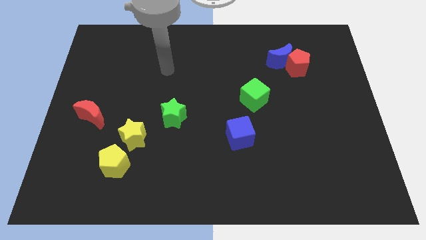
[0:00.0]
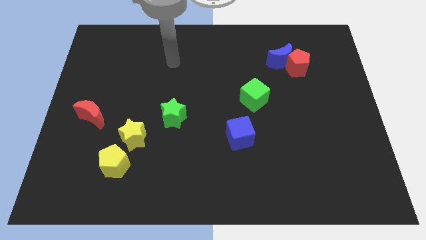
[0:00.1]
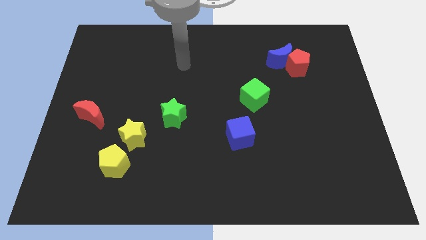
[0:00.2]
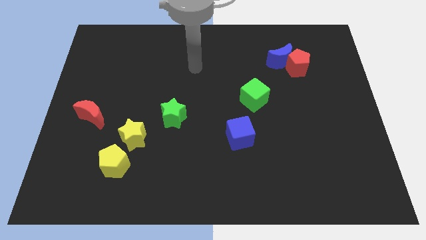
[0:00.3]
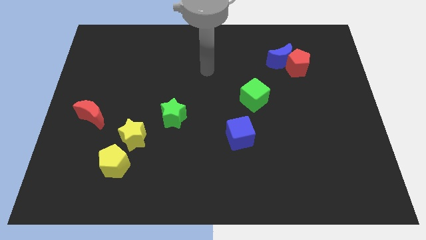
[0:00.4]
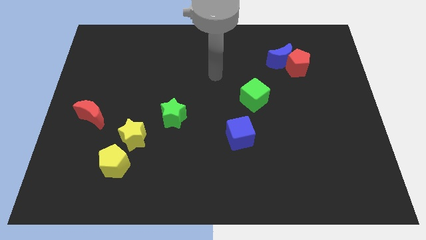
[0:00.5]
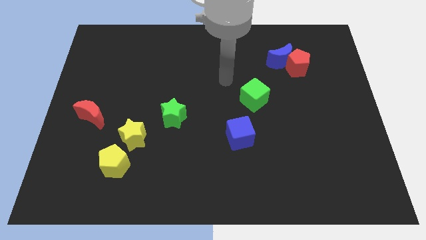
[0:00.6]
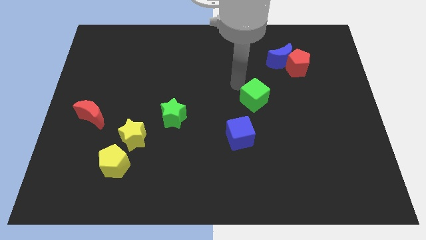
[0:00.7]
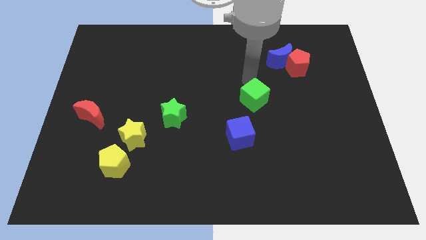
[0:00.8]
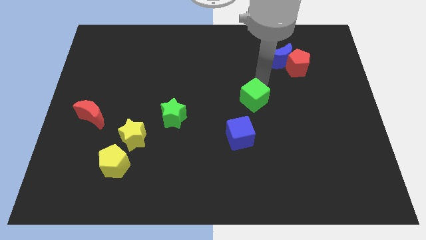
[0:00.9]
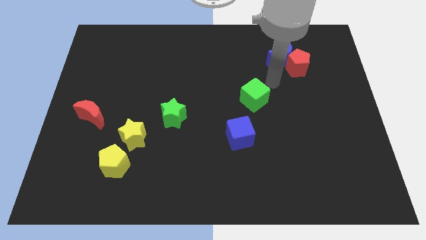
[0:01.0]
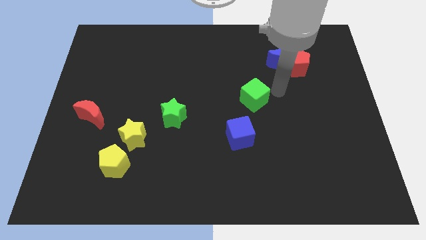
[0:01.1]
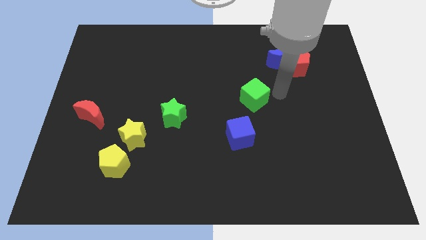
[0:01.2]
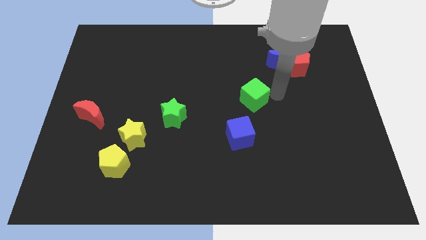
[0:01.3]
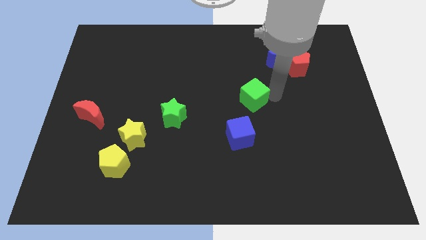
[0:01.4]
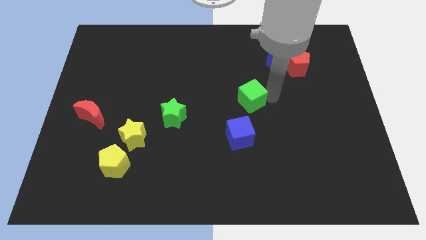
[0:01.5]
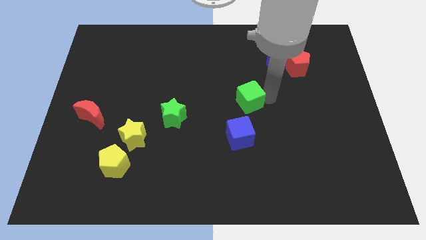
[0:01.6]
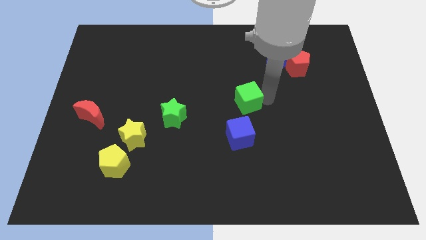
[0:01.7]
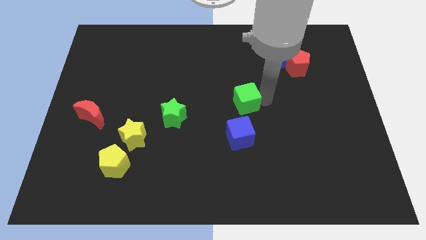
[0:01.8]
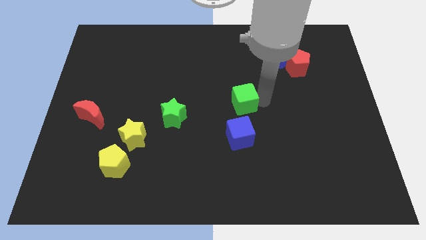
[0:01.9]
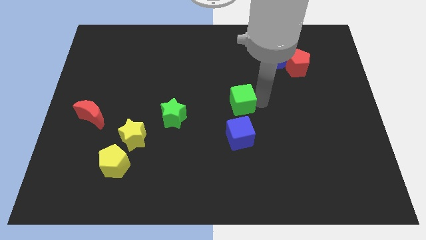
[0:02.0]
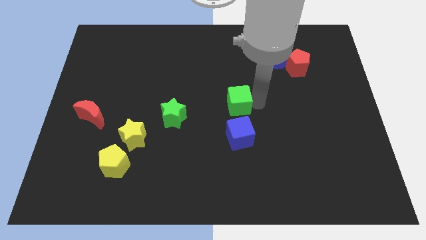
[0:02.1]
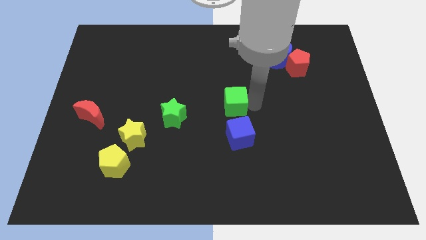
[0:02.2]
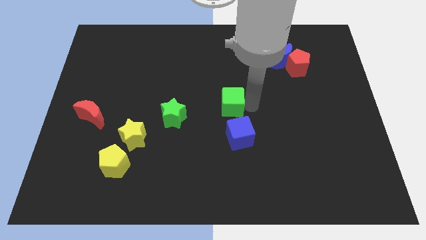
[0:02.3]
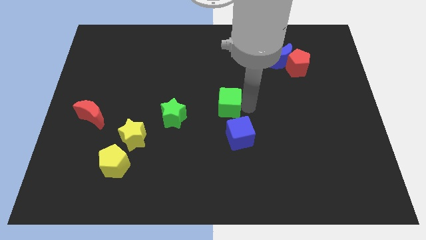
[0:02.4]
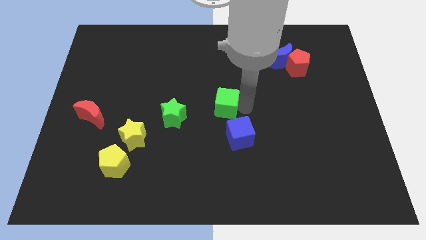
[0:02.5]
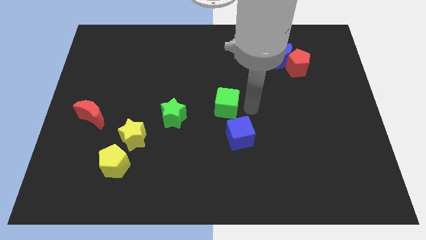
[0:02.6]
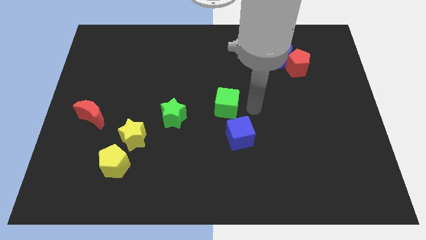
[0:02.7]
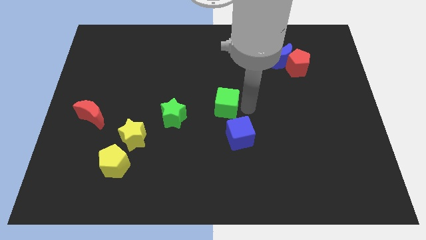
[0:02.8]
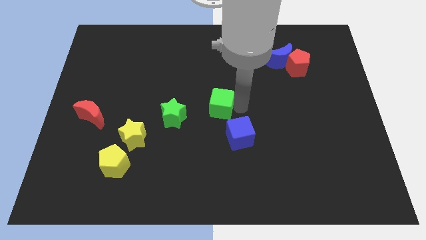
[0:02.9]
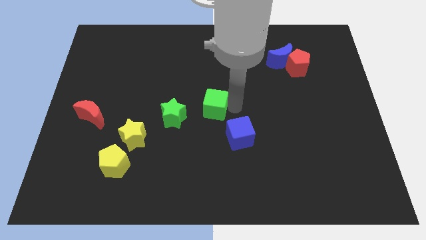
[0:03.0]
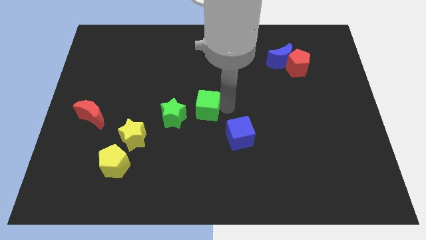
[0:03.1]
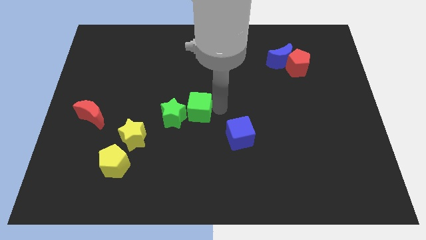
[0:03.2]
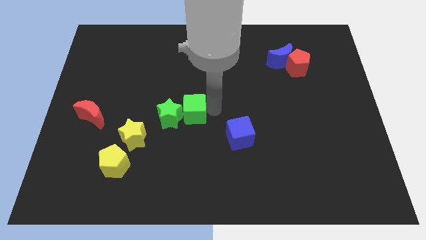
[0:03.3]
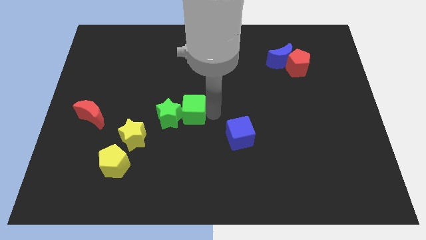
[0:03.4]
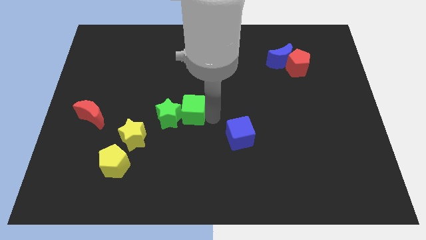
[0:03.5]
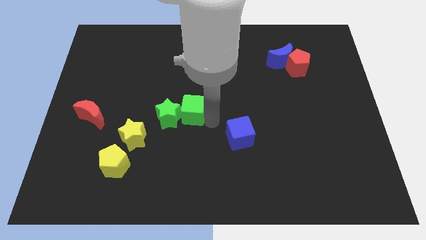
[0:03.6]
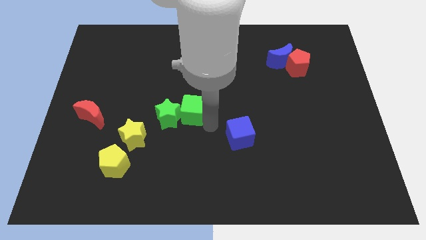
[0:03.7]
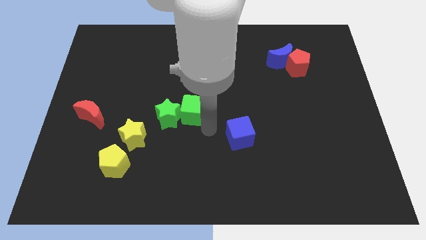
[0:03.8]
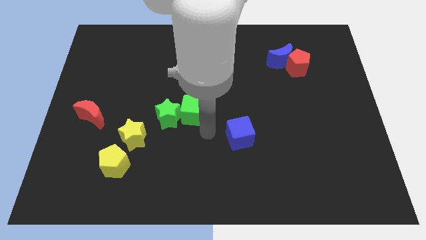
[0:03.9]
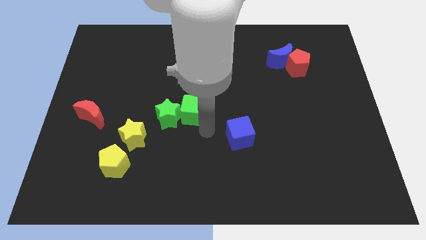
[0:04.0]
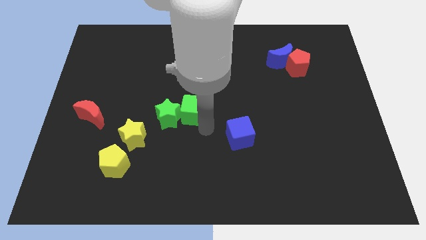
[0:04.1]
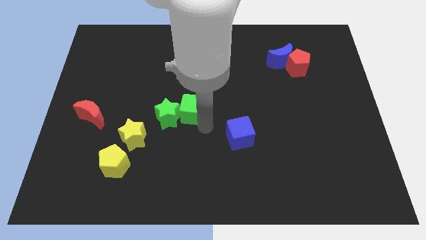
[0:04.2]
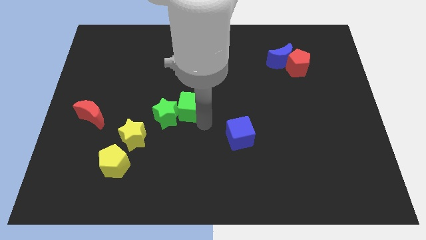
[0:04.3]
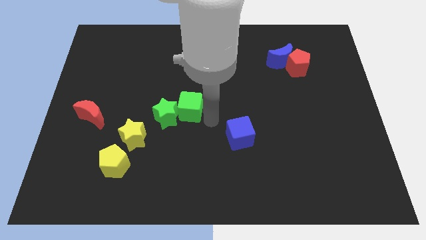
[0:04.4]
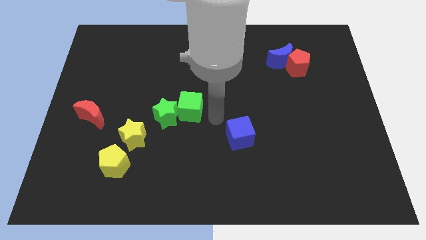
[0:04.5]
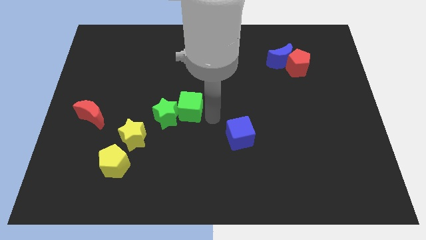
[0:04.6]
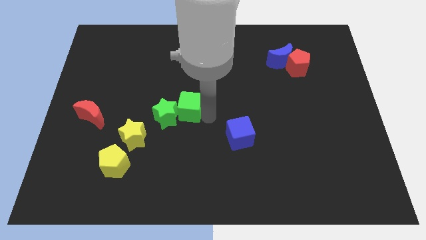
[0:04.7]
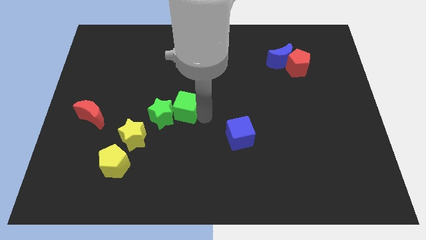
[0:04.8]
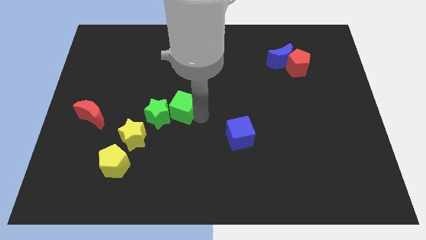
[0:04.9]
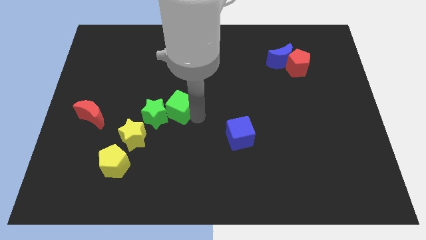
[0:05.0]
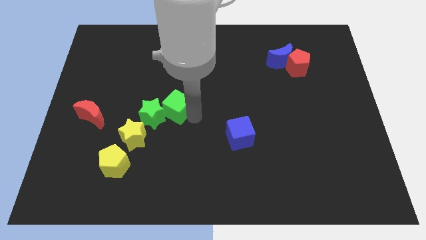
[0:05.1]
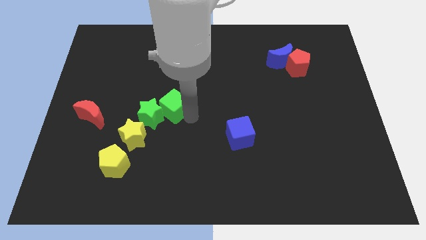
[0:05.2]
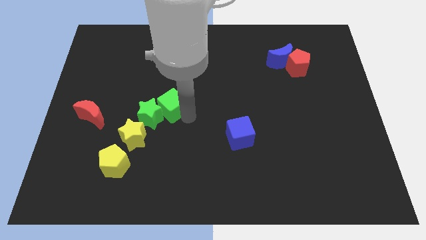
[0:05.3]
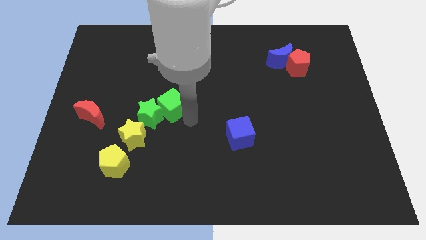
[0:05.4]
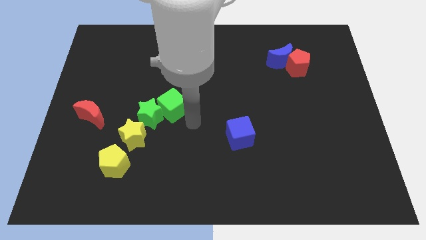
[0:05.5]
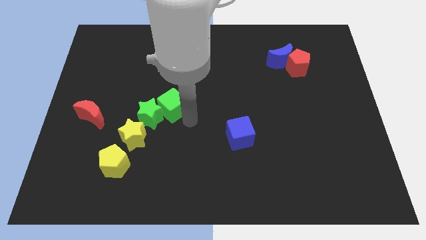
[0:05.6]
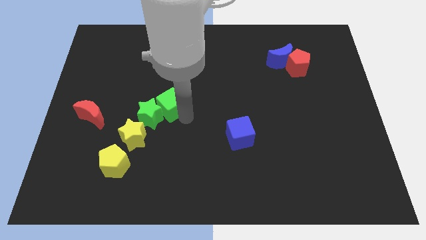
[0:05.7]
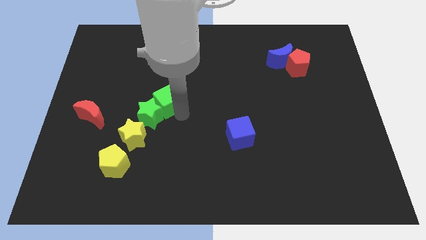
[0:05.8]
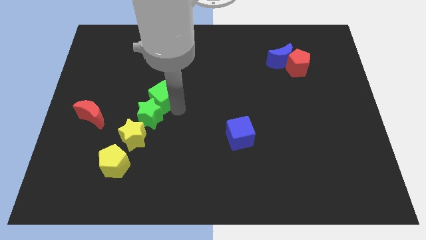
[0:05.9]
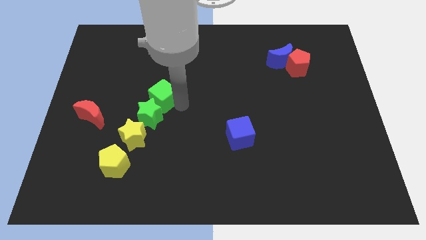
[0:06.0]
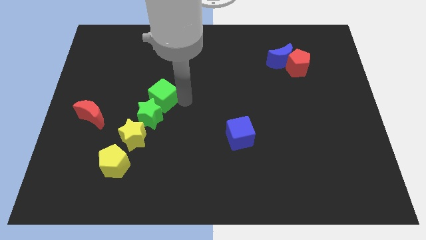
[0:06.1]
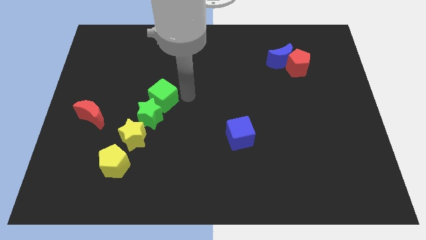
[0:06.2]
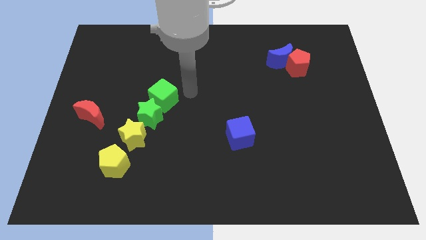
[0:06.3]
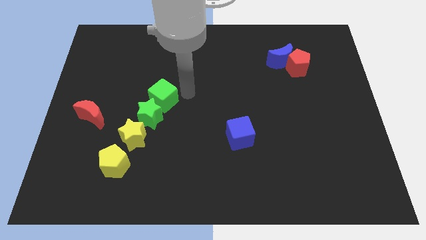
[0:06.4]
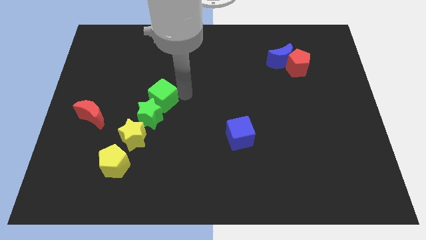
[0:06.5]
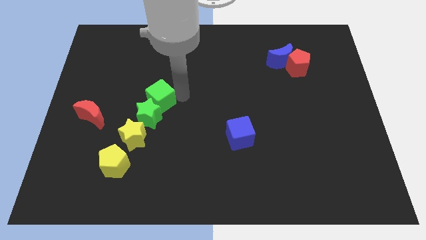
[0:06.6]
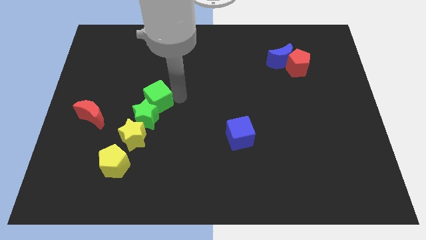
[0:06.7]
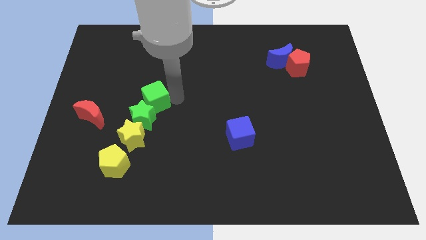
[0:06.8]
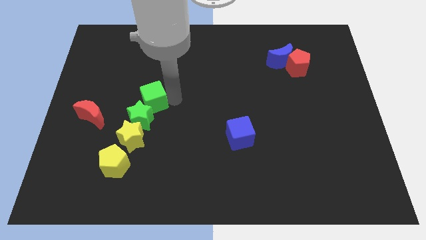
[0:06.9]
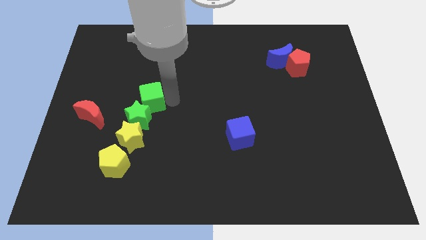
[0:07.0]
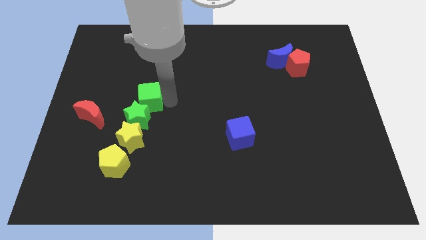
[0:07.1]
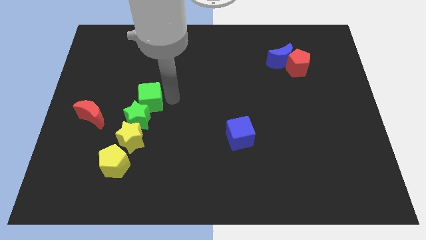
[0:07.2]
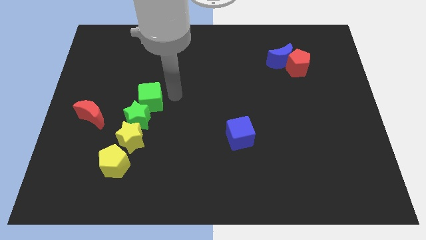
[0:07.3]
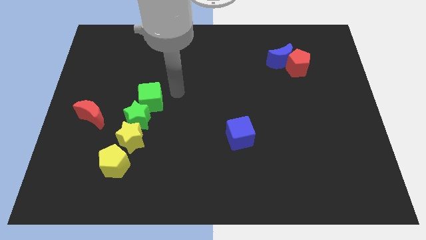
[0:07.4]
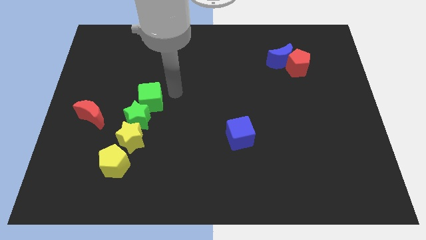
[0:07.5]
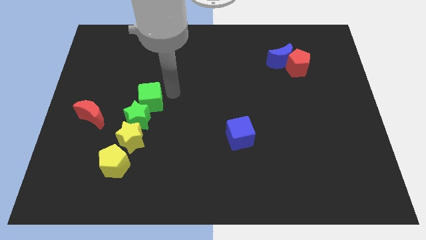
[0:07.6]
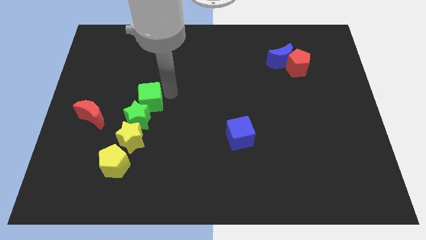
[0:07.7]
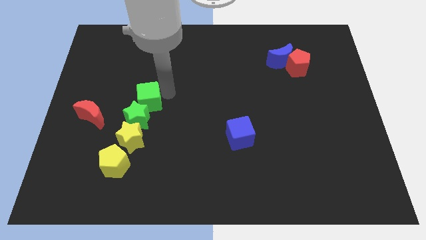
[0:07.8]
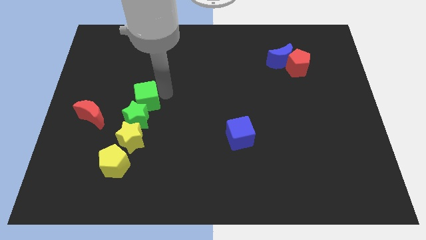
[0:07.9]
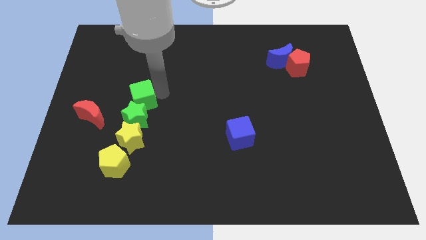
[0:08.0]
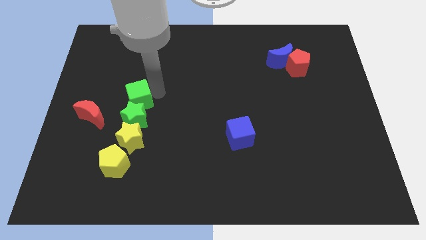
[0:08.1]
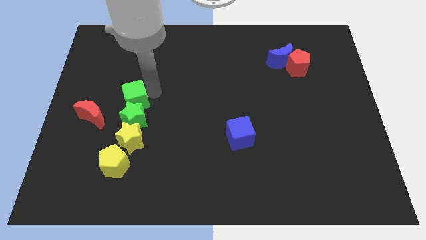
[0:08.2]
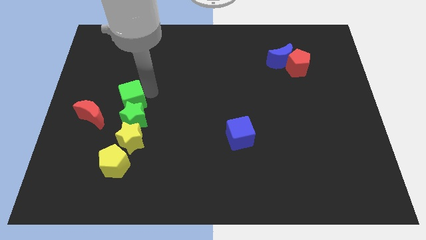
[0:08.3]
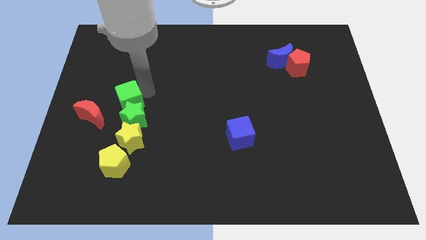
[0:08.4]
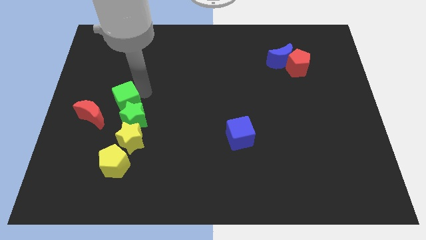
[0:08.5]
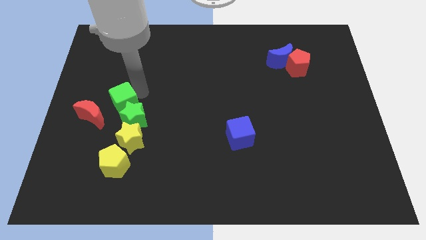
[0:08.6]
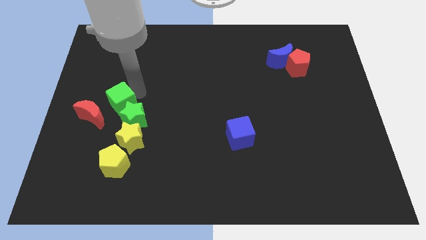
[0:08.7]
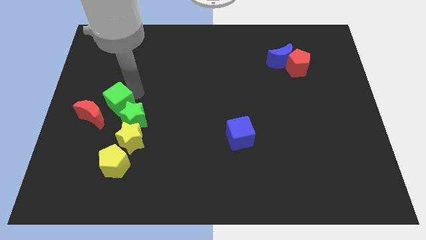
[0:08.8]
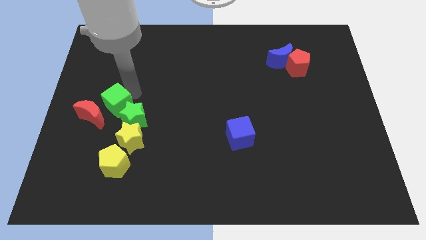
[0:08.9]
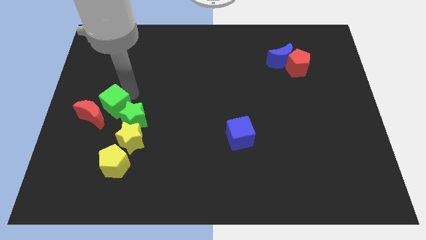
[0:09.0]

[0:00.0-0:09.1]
put the green cube close to the red moon
